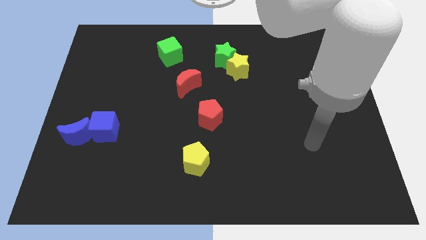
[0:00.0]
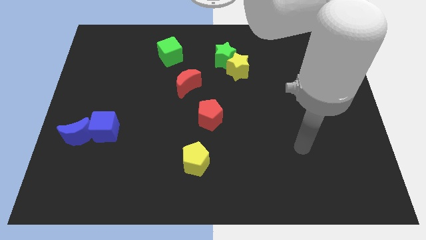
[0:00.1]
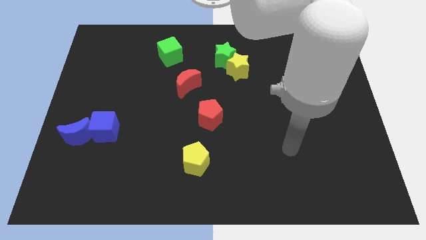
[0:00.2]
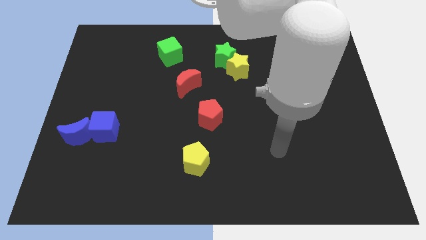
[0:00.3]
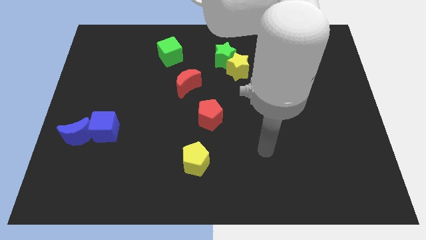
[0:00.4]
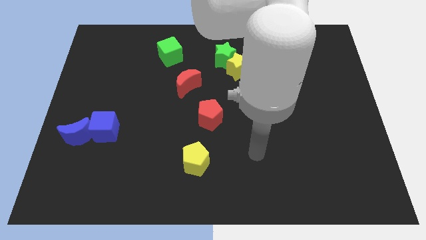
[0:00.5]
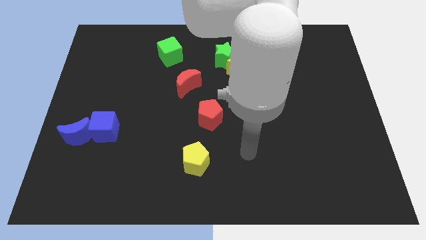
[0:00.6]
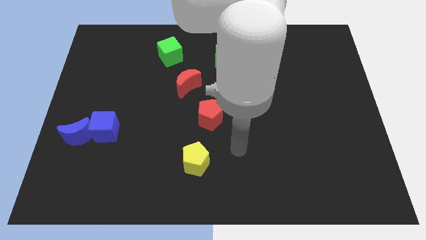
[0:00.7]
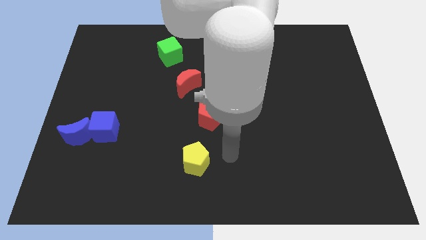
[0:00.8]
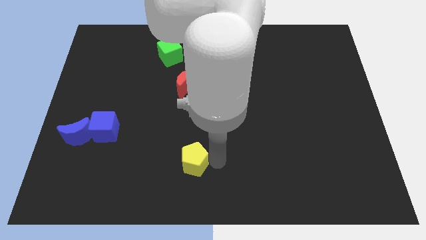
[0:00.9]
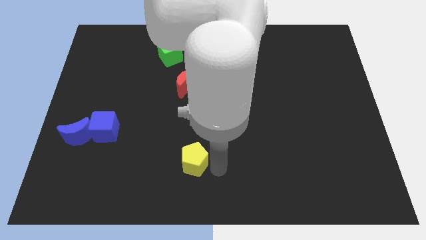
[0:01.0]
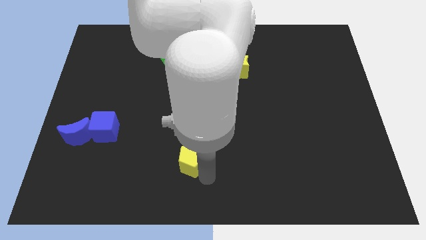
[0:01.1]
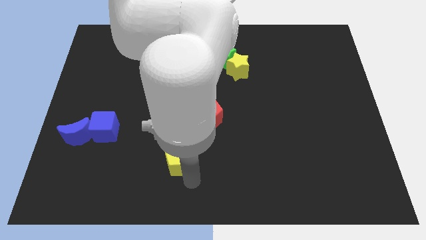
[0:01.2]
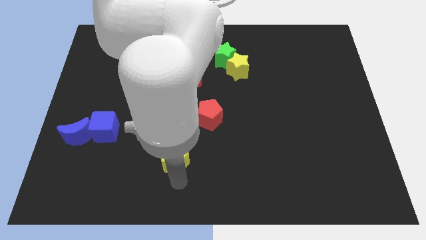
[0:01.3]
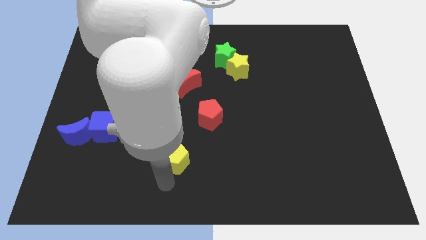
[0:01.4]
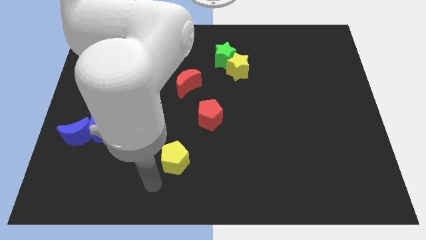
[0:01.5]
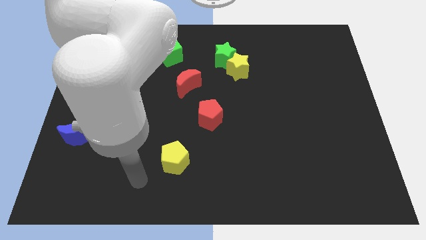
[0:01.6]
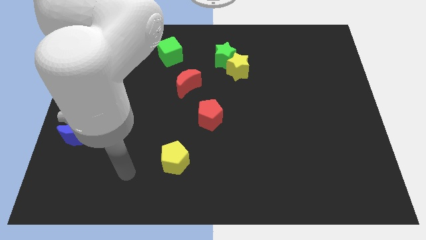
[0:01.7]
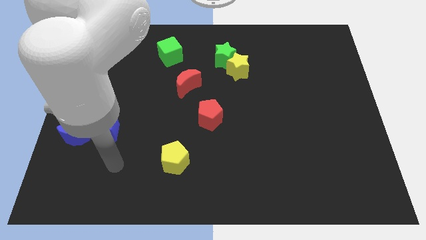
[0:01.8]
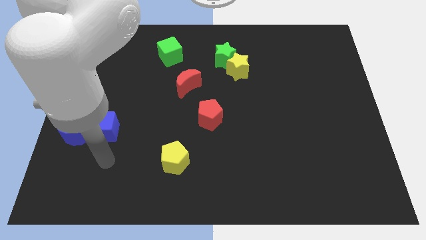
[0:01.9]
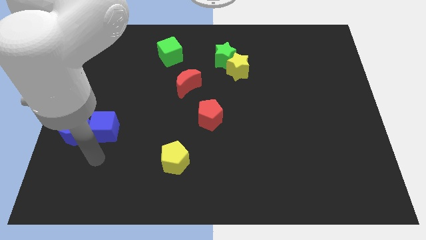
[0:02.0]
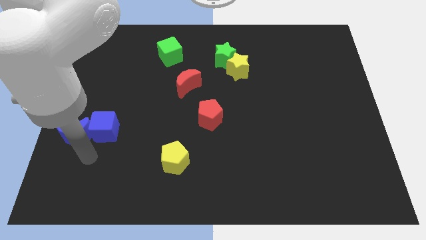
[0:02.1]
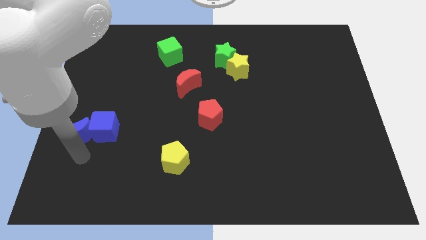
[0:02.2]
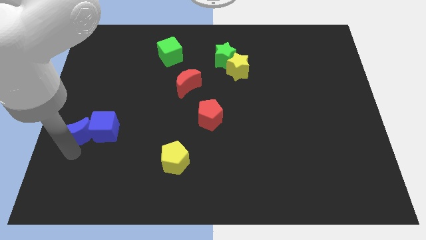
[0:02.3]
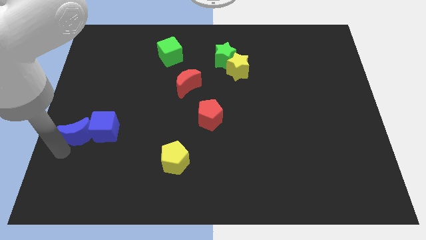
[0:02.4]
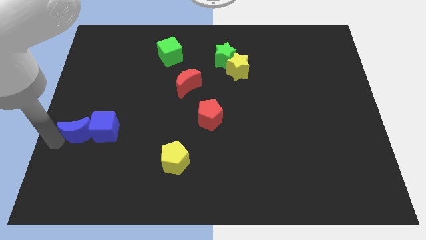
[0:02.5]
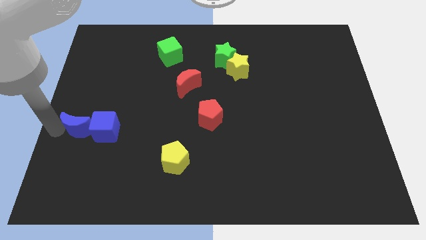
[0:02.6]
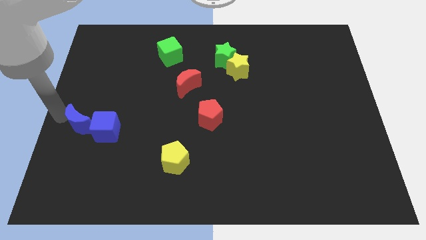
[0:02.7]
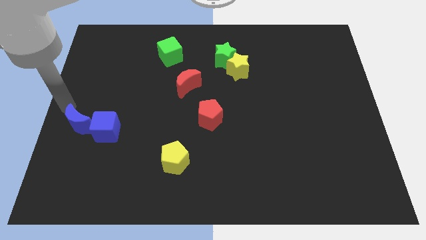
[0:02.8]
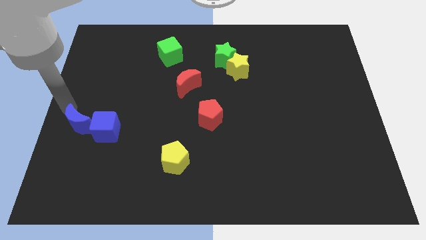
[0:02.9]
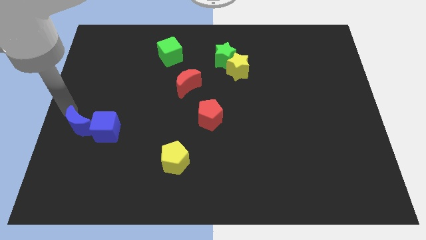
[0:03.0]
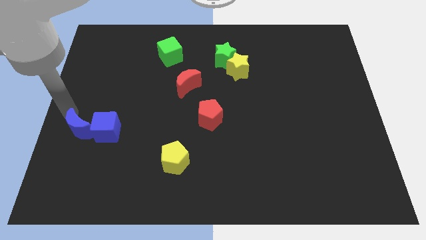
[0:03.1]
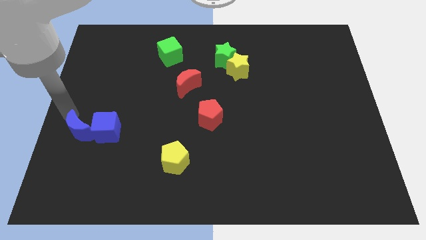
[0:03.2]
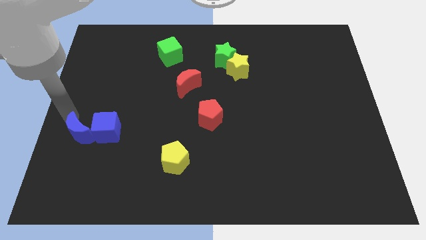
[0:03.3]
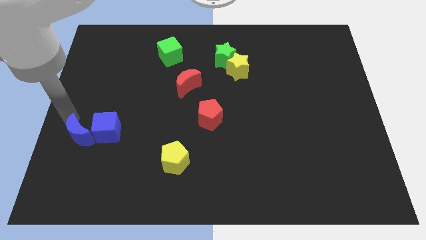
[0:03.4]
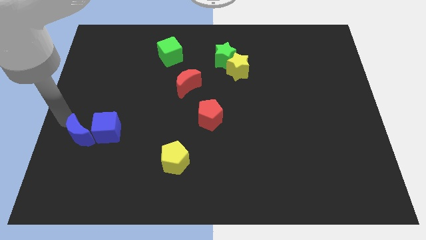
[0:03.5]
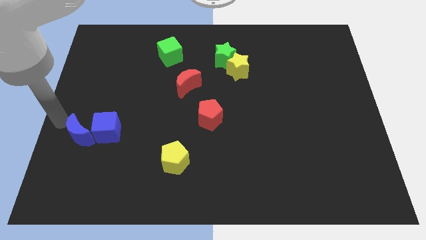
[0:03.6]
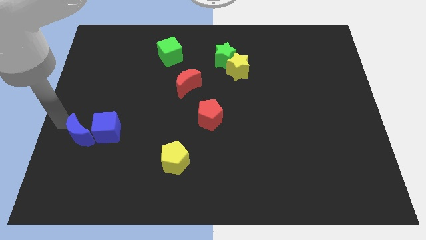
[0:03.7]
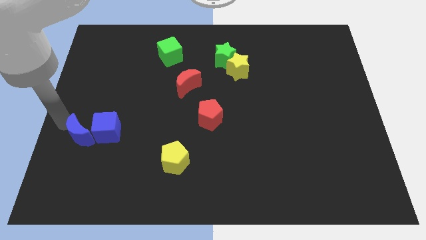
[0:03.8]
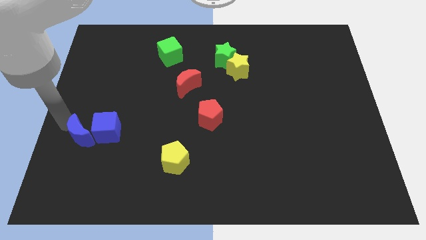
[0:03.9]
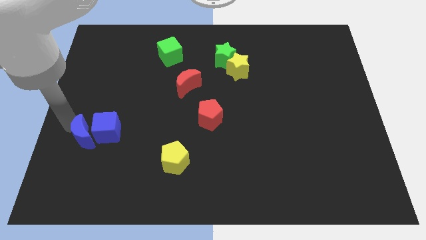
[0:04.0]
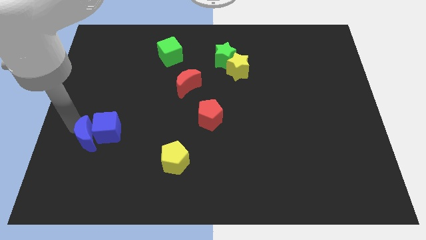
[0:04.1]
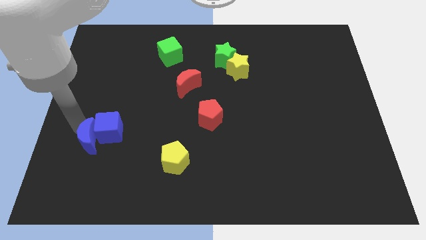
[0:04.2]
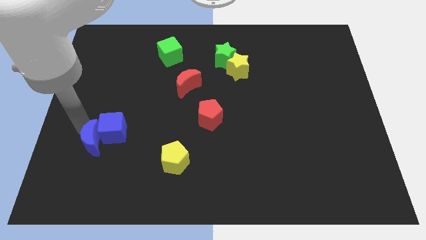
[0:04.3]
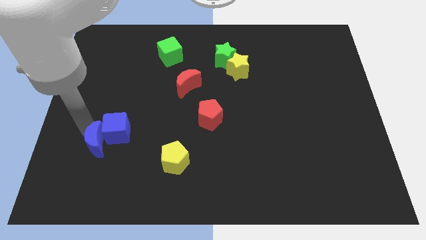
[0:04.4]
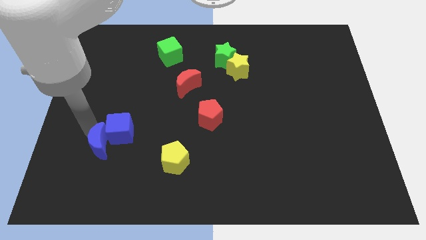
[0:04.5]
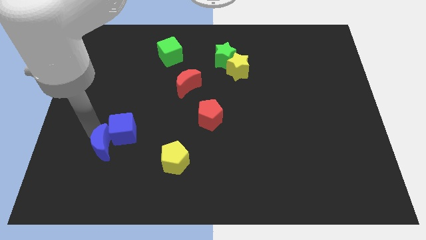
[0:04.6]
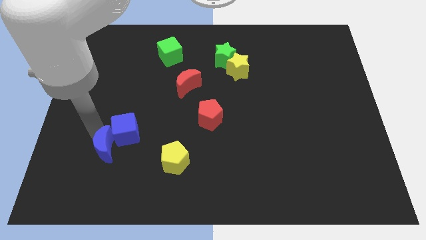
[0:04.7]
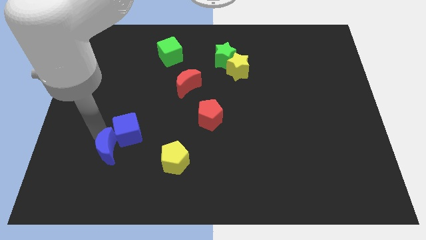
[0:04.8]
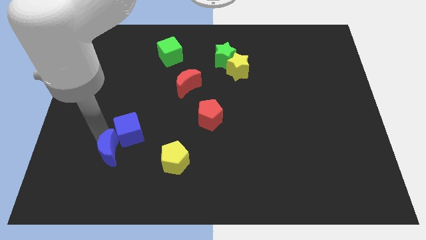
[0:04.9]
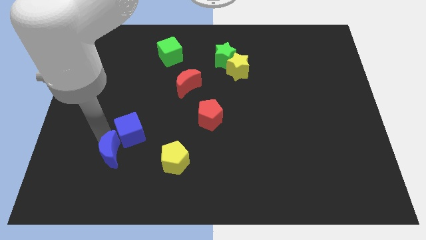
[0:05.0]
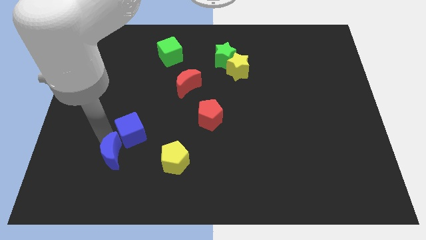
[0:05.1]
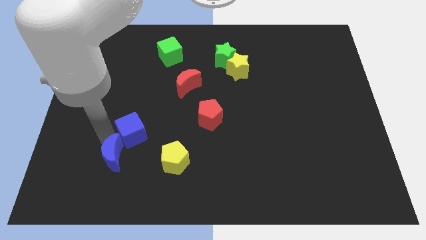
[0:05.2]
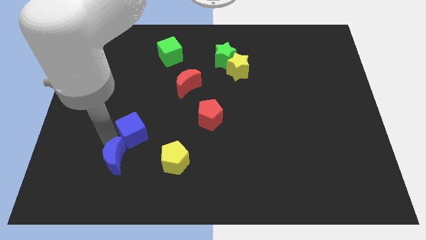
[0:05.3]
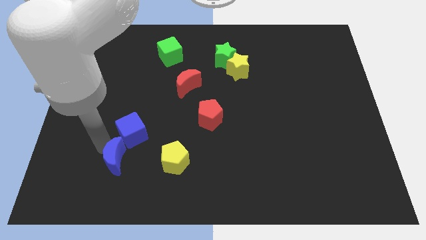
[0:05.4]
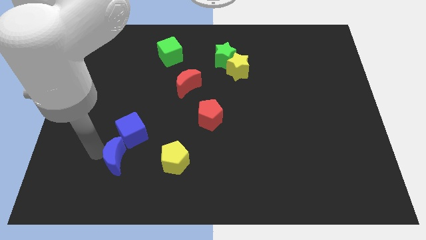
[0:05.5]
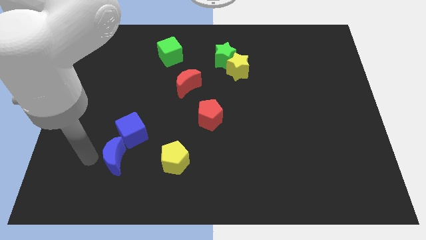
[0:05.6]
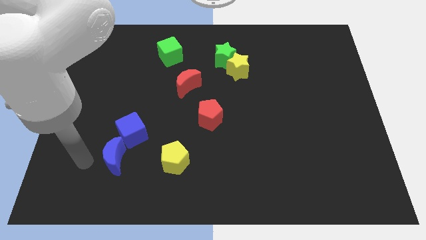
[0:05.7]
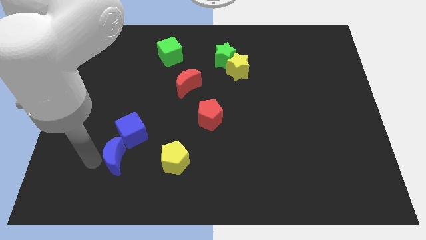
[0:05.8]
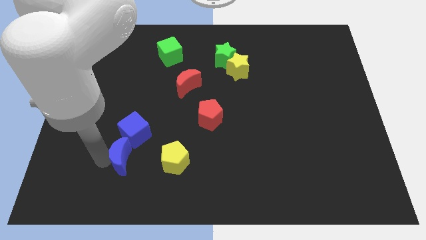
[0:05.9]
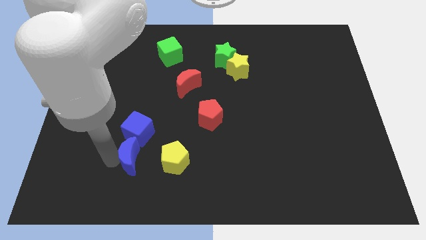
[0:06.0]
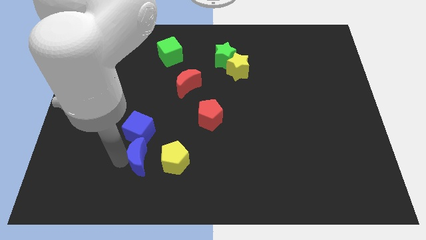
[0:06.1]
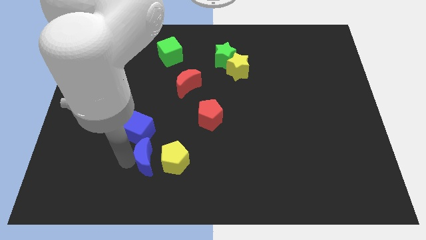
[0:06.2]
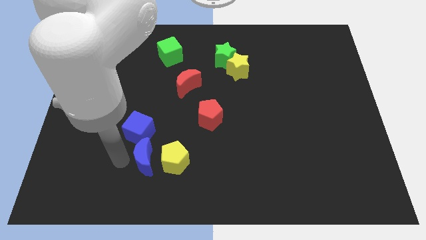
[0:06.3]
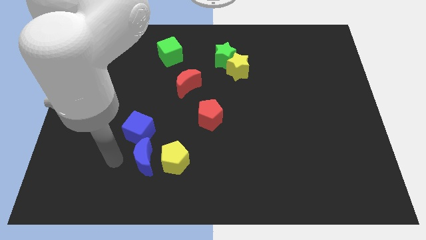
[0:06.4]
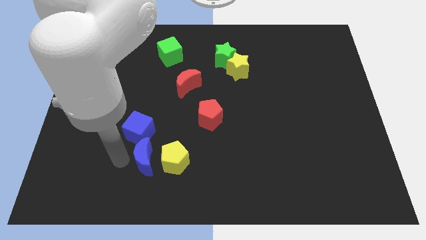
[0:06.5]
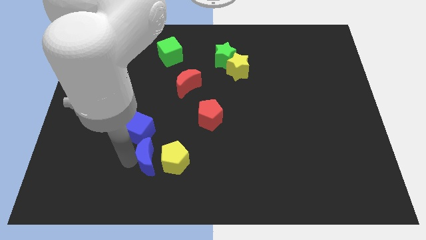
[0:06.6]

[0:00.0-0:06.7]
move the blue moon to the yellow pentagon
